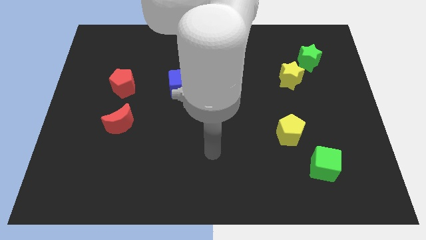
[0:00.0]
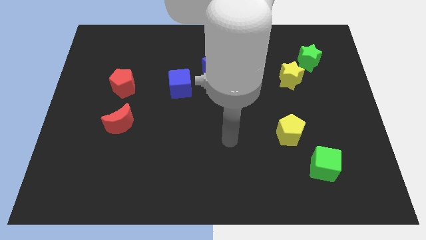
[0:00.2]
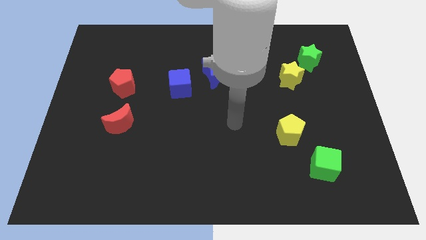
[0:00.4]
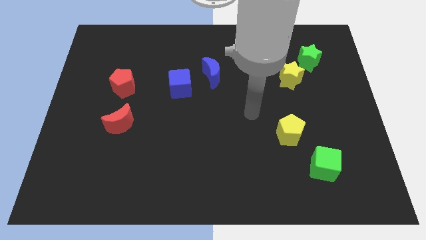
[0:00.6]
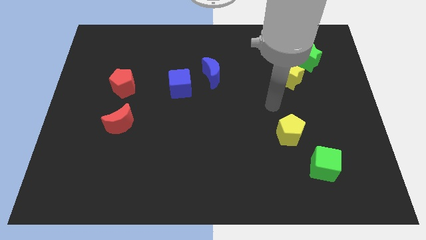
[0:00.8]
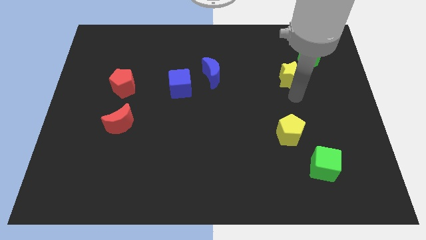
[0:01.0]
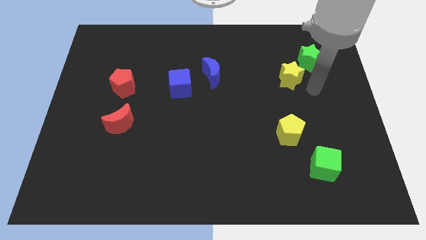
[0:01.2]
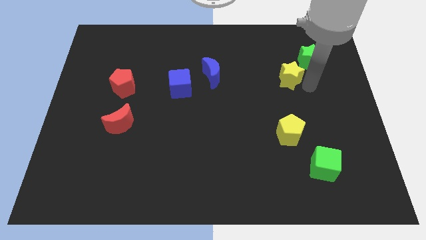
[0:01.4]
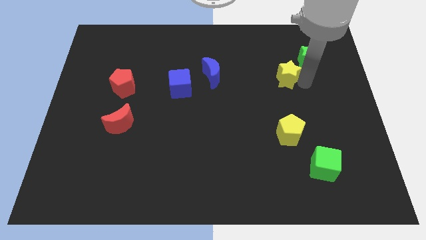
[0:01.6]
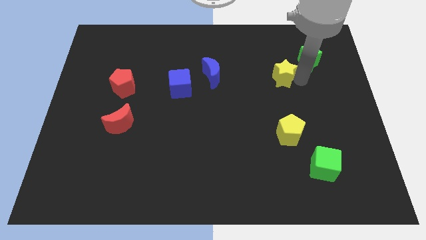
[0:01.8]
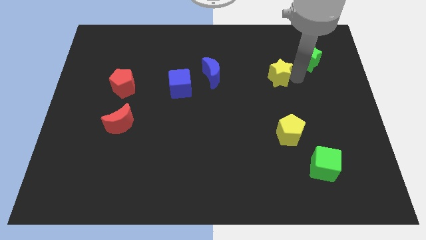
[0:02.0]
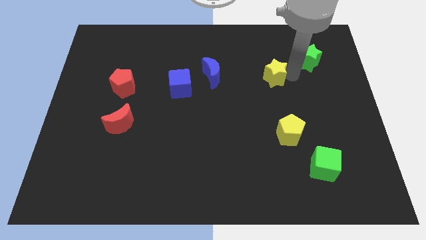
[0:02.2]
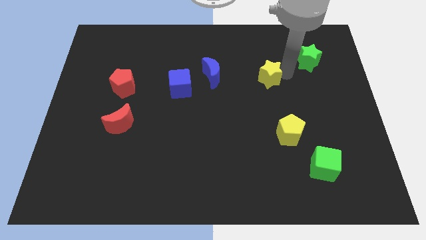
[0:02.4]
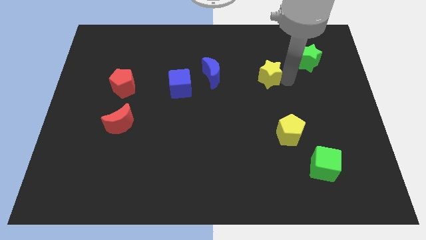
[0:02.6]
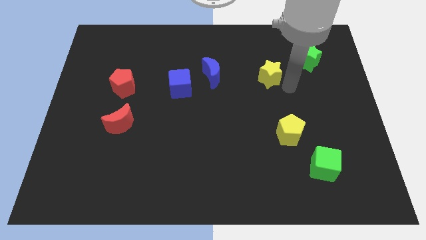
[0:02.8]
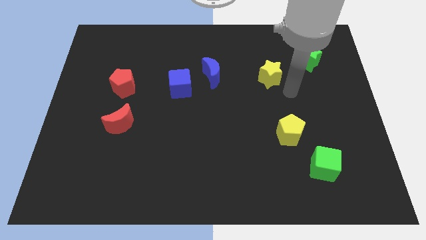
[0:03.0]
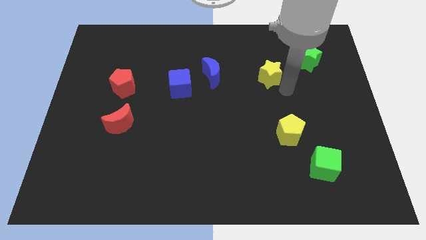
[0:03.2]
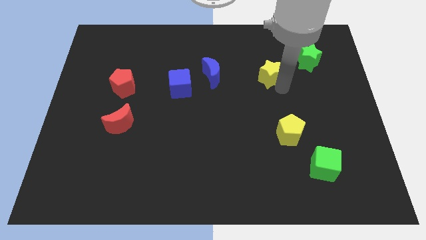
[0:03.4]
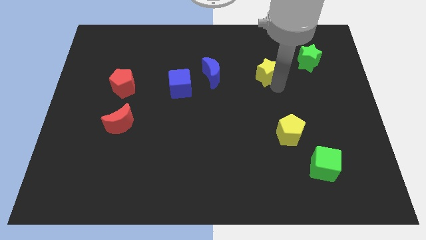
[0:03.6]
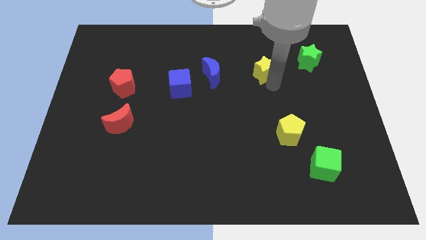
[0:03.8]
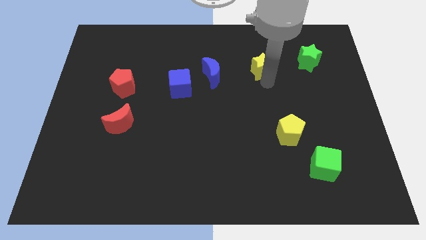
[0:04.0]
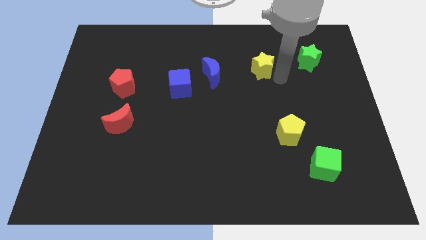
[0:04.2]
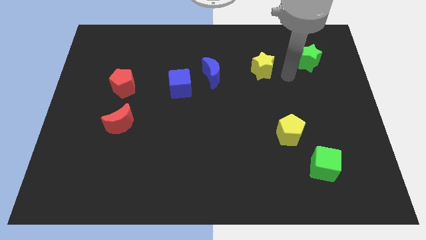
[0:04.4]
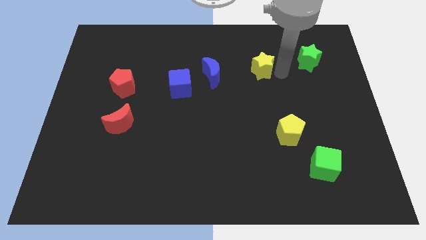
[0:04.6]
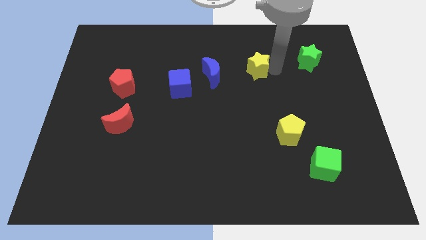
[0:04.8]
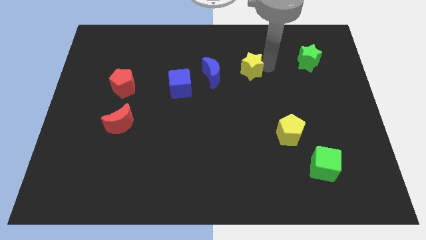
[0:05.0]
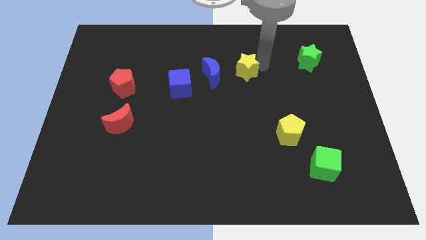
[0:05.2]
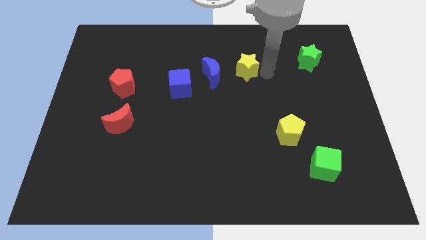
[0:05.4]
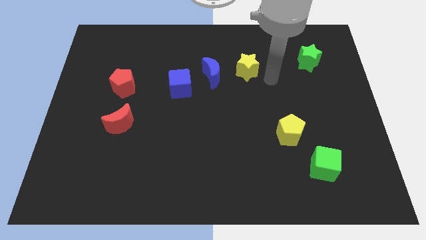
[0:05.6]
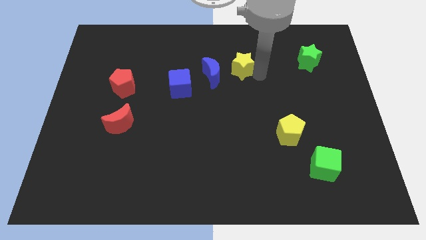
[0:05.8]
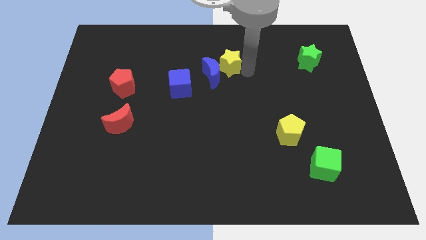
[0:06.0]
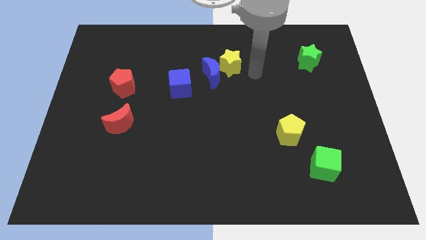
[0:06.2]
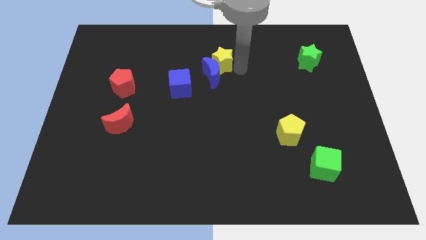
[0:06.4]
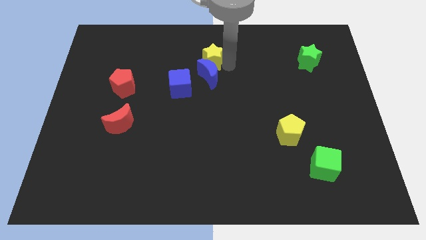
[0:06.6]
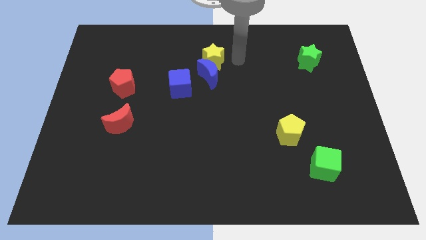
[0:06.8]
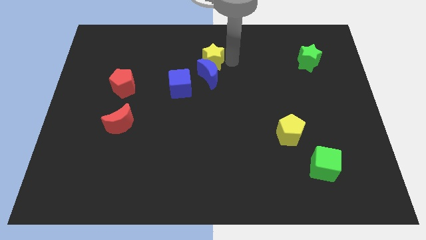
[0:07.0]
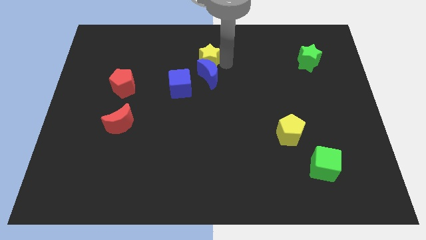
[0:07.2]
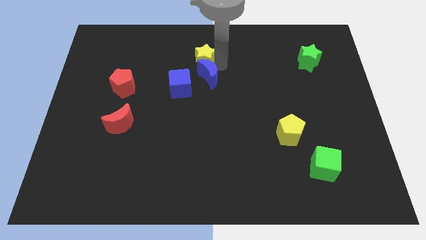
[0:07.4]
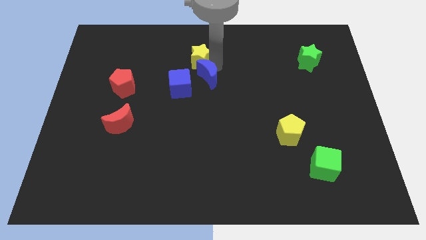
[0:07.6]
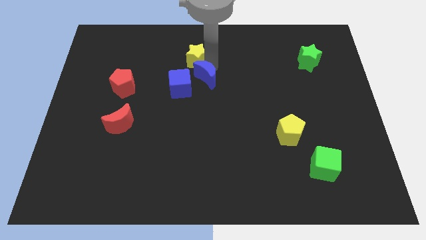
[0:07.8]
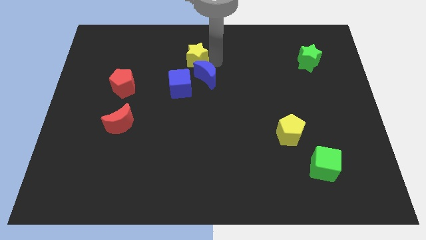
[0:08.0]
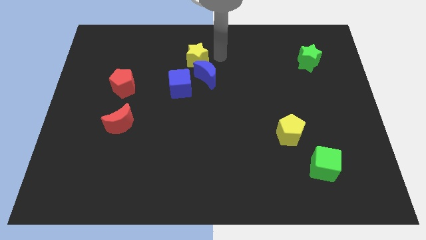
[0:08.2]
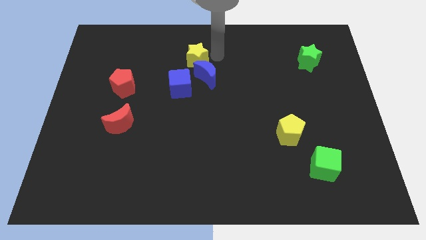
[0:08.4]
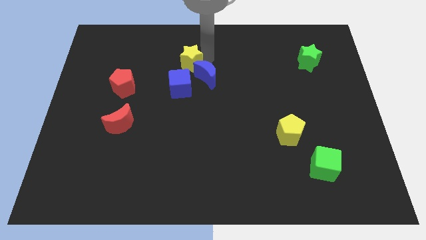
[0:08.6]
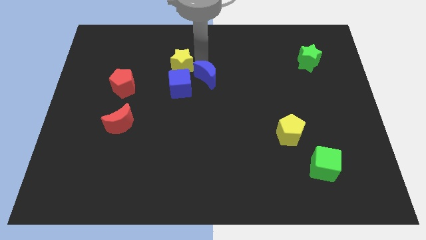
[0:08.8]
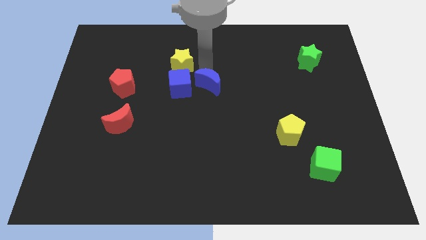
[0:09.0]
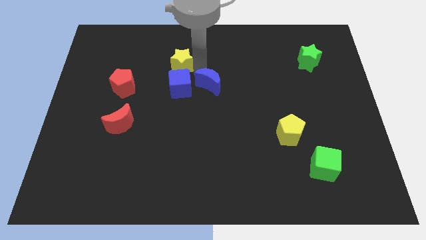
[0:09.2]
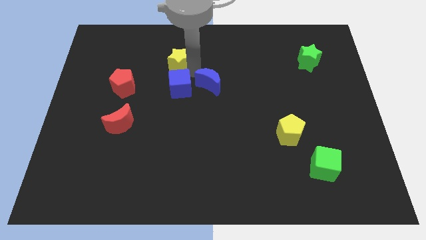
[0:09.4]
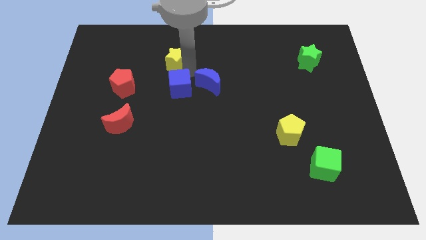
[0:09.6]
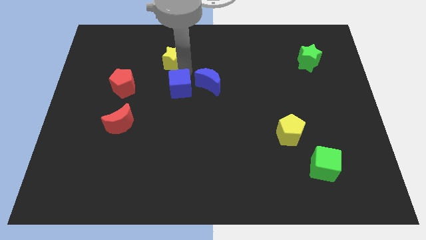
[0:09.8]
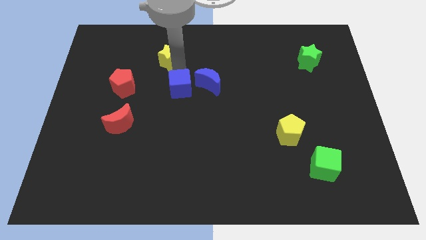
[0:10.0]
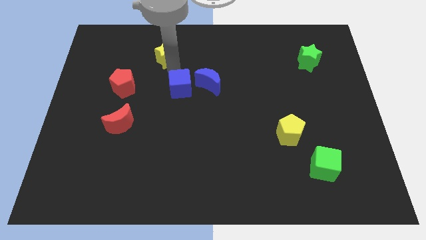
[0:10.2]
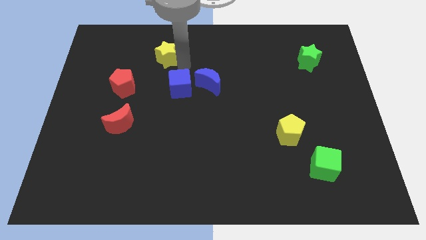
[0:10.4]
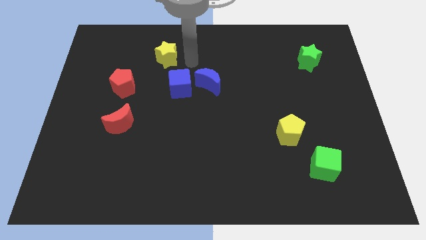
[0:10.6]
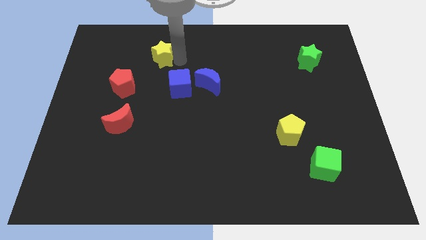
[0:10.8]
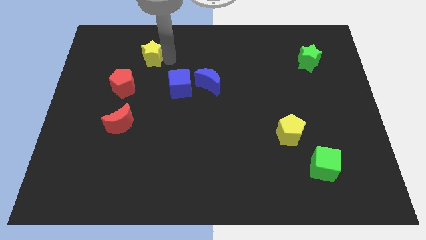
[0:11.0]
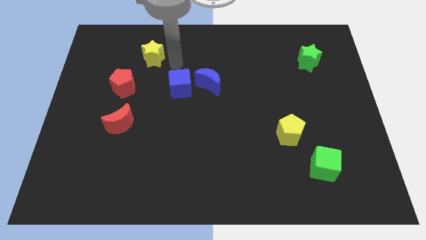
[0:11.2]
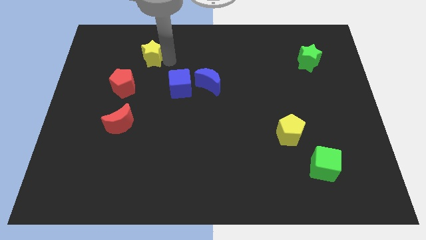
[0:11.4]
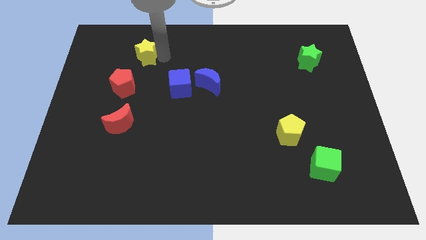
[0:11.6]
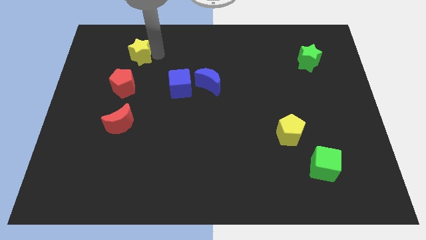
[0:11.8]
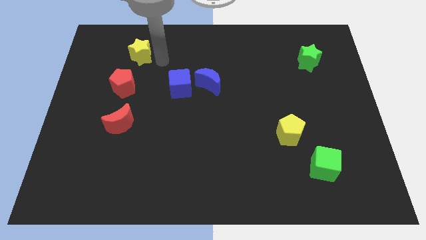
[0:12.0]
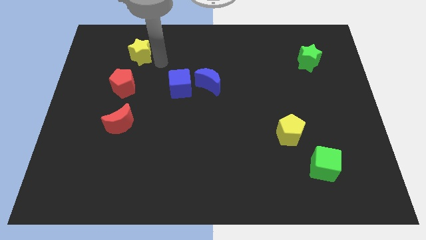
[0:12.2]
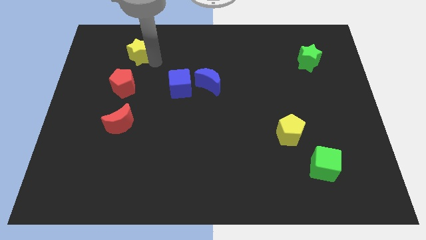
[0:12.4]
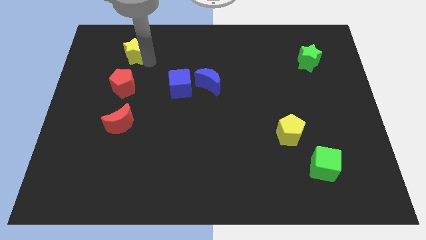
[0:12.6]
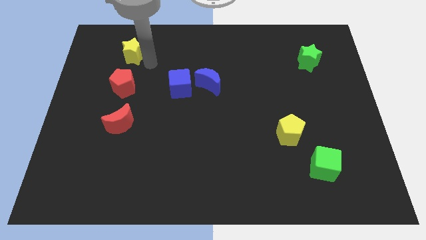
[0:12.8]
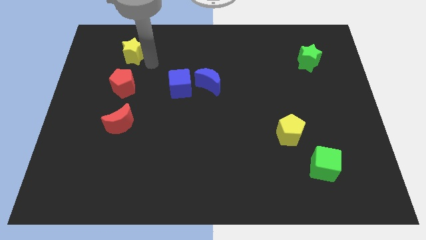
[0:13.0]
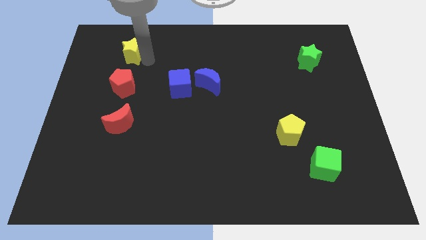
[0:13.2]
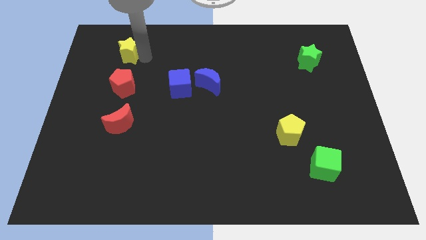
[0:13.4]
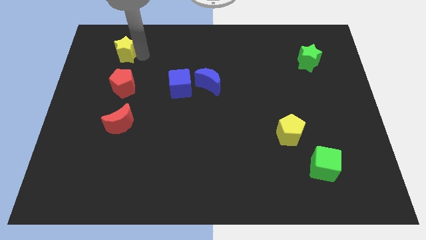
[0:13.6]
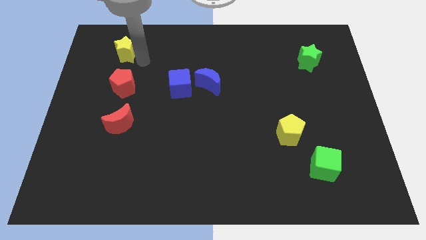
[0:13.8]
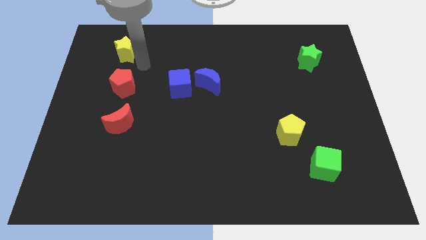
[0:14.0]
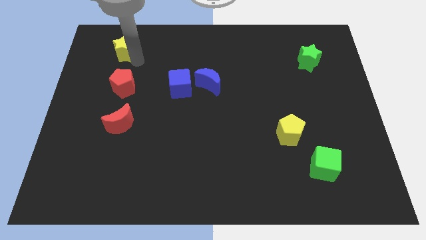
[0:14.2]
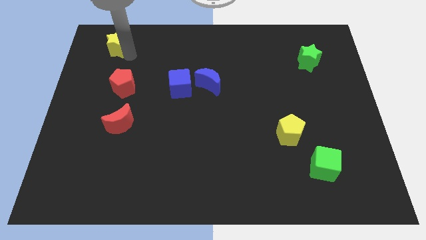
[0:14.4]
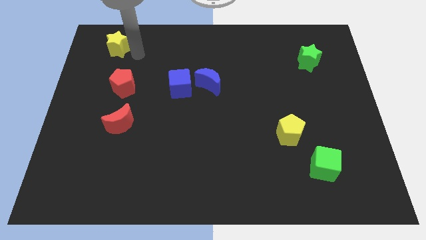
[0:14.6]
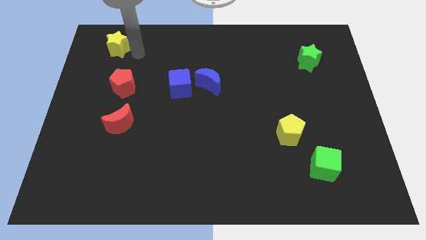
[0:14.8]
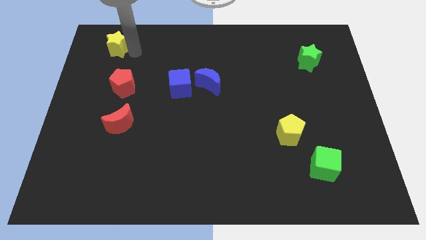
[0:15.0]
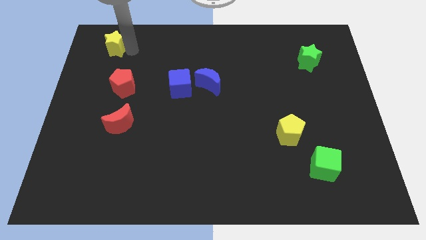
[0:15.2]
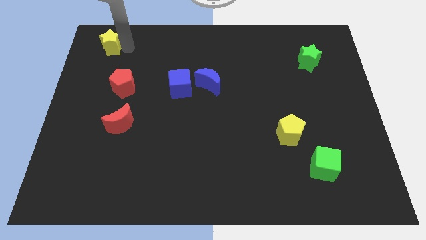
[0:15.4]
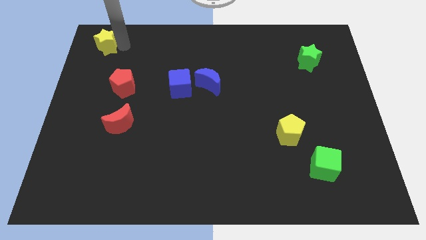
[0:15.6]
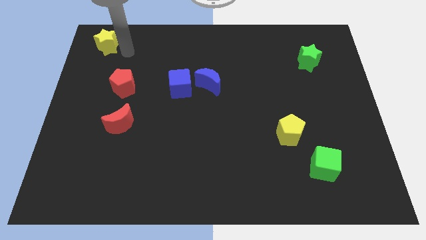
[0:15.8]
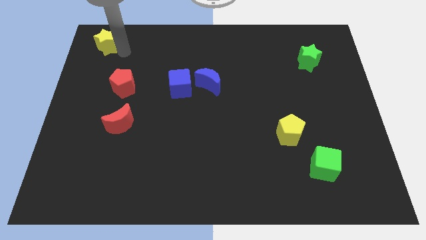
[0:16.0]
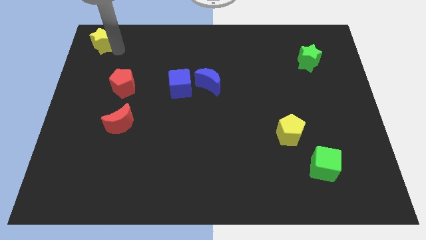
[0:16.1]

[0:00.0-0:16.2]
move the yellow star to the upper left corner
